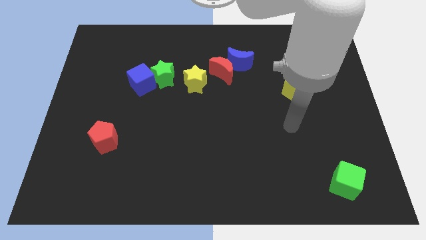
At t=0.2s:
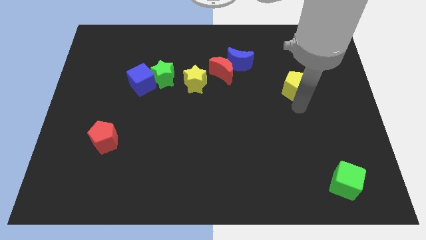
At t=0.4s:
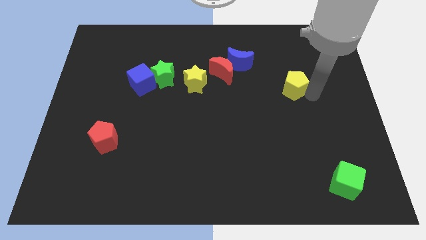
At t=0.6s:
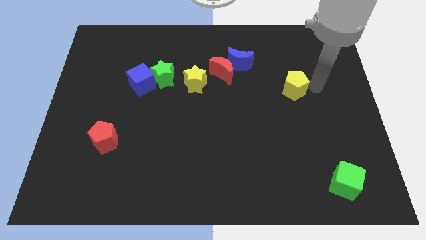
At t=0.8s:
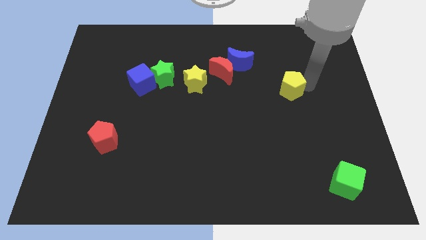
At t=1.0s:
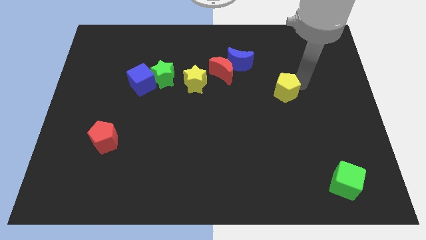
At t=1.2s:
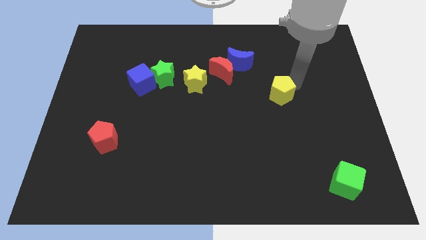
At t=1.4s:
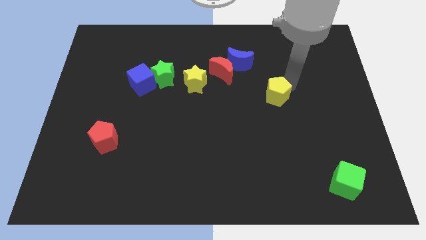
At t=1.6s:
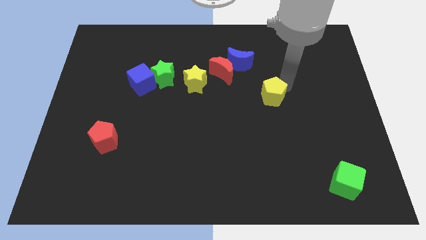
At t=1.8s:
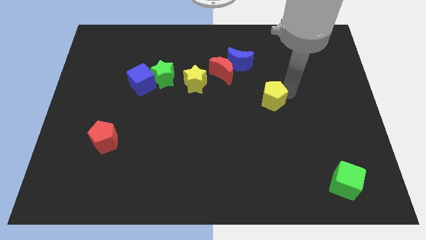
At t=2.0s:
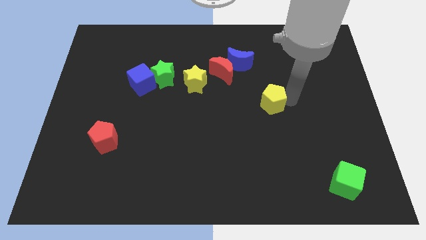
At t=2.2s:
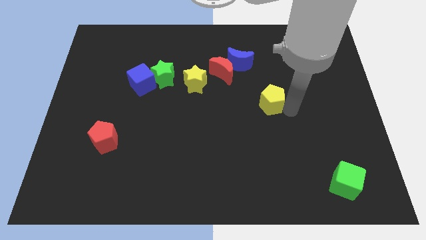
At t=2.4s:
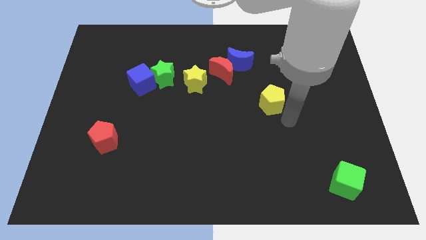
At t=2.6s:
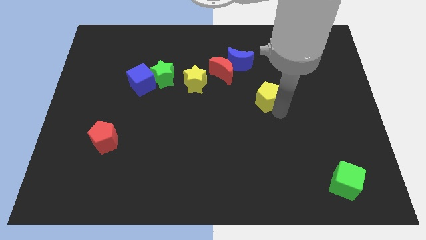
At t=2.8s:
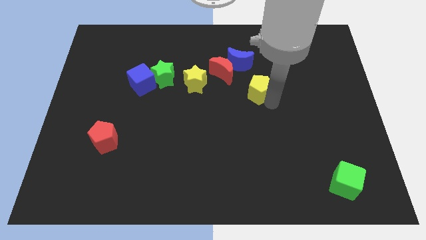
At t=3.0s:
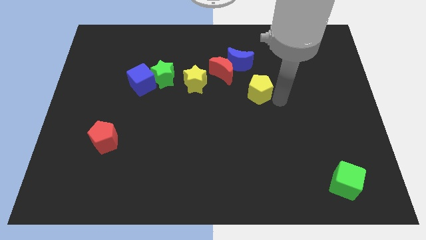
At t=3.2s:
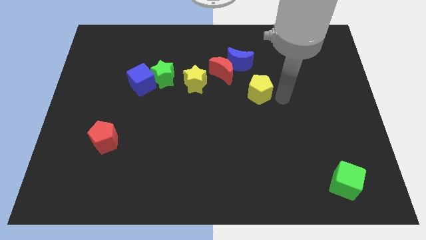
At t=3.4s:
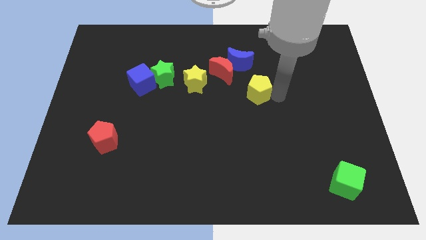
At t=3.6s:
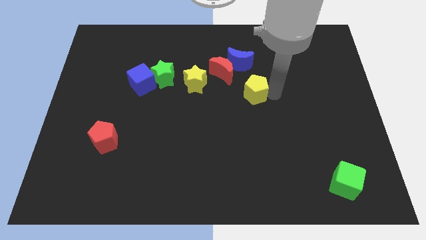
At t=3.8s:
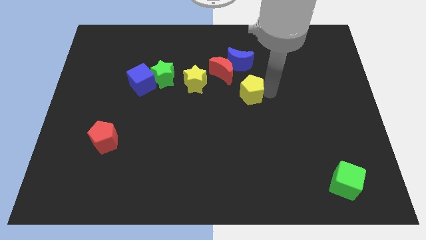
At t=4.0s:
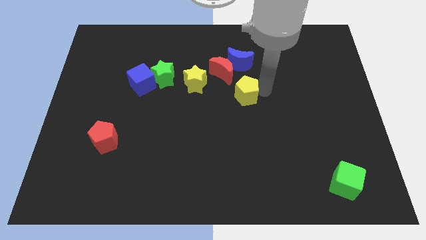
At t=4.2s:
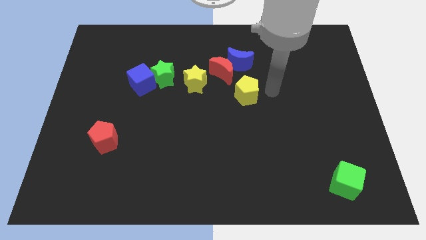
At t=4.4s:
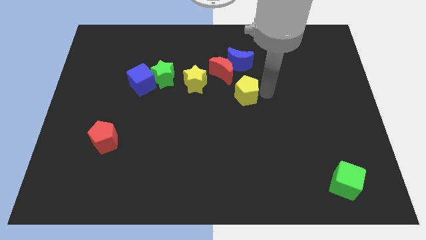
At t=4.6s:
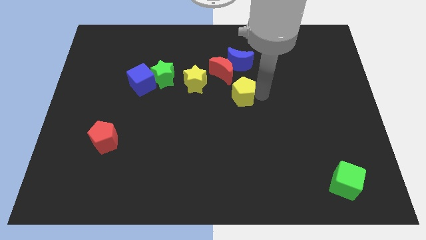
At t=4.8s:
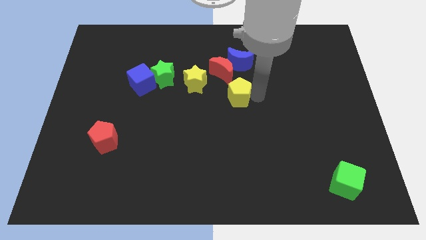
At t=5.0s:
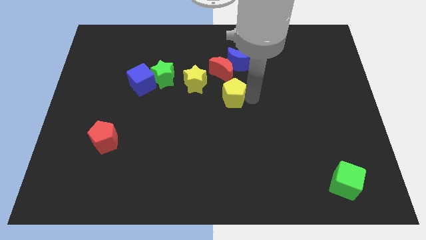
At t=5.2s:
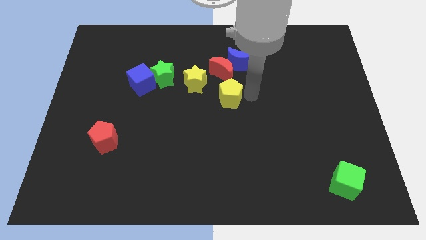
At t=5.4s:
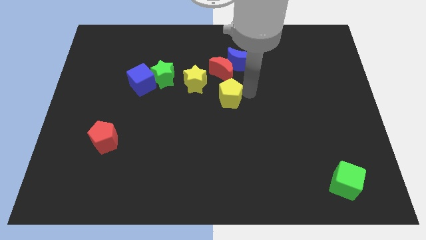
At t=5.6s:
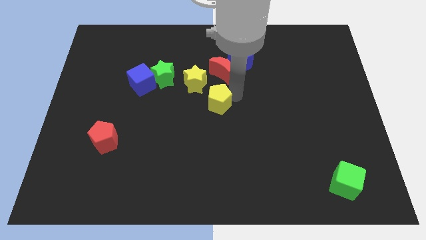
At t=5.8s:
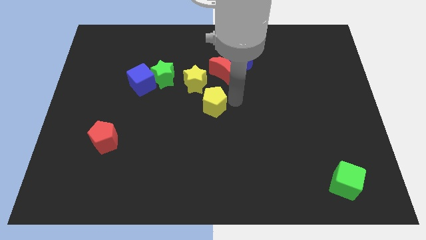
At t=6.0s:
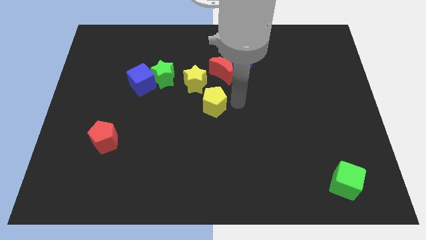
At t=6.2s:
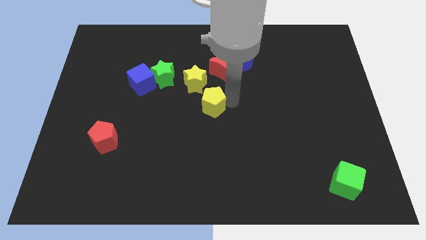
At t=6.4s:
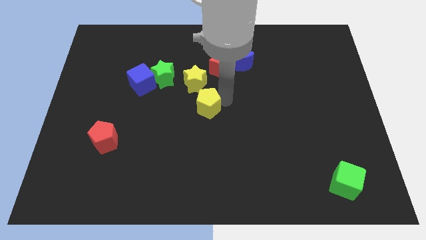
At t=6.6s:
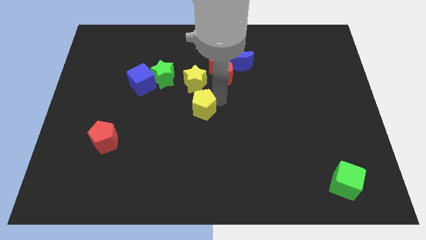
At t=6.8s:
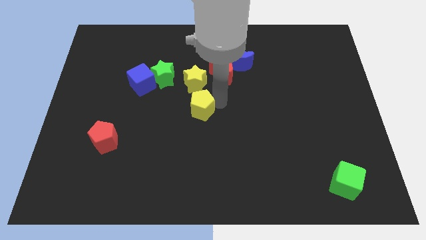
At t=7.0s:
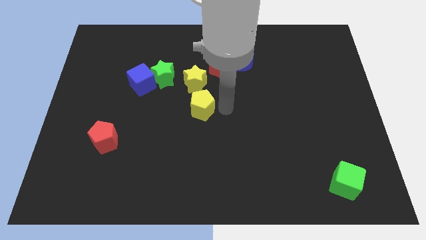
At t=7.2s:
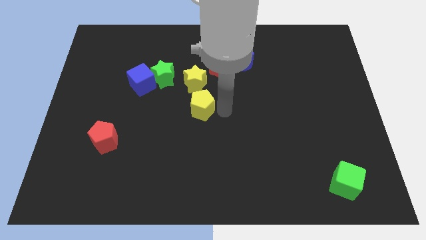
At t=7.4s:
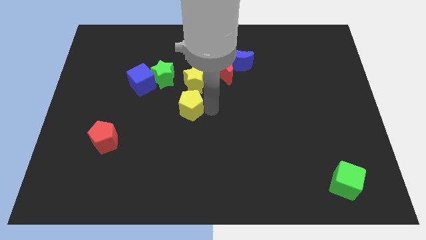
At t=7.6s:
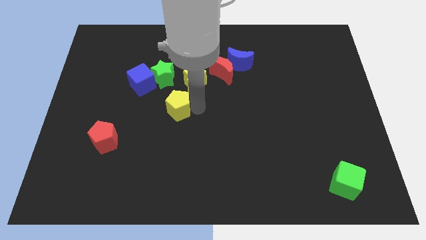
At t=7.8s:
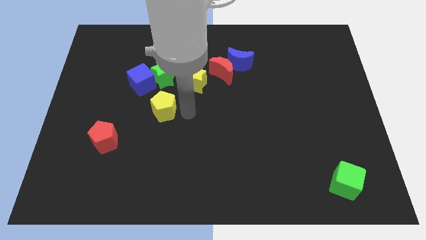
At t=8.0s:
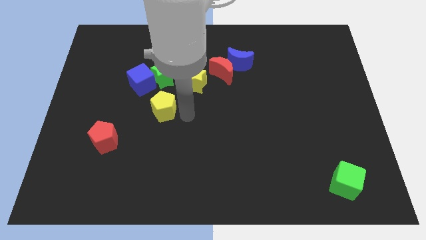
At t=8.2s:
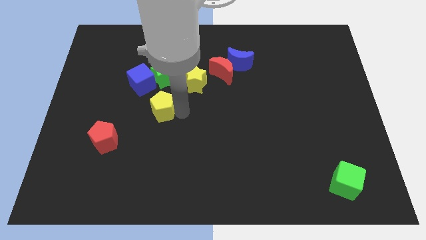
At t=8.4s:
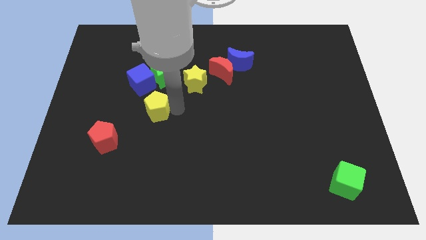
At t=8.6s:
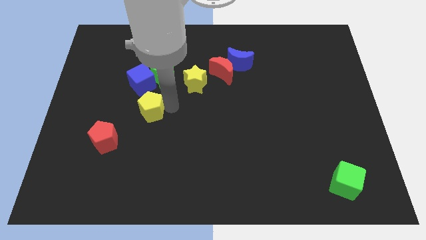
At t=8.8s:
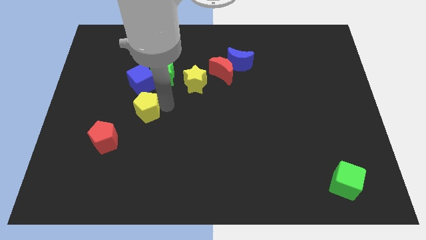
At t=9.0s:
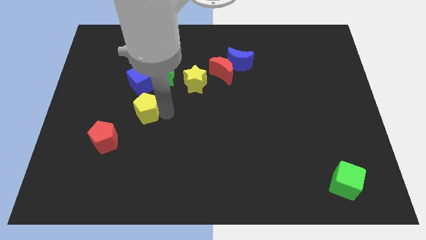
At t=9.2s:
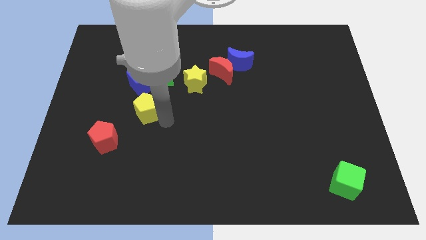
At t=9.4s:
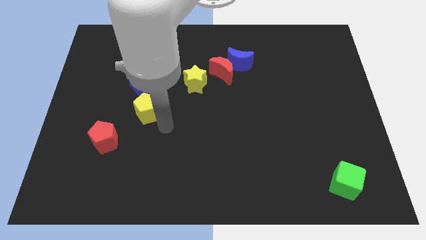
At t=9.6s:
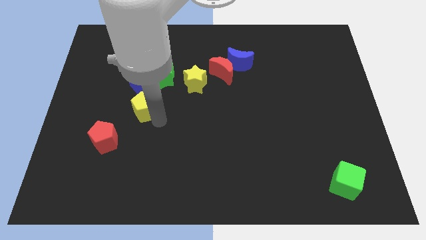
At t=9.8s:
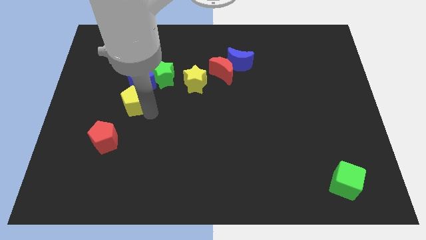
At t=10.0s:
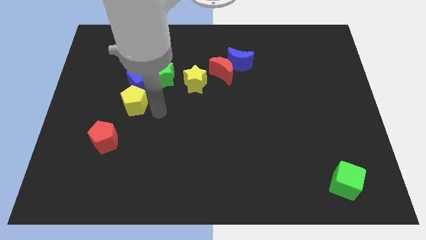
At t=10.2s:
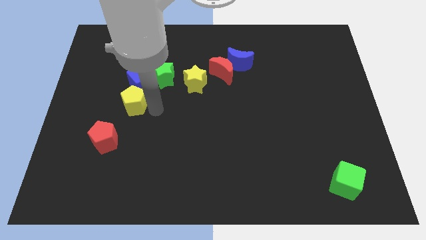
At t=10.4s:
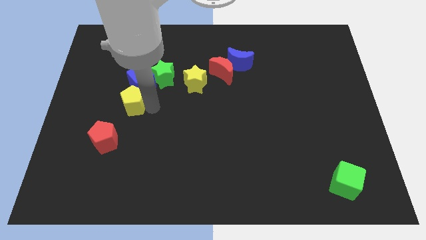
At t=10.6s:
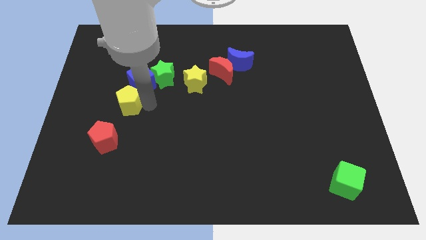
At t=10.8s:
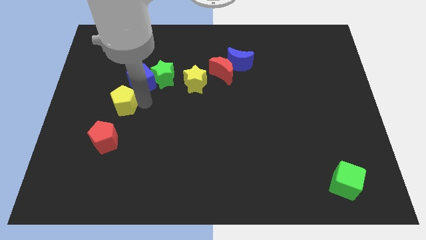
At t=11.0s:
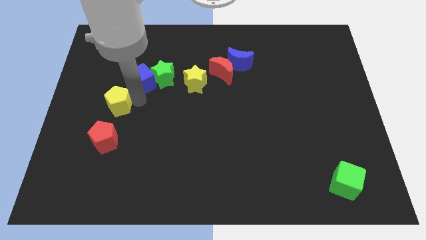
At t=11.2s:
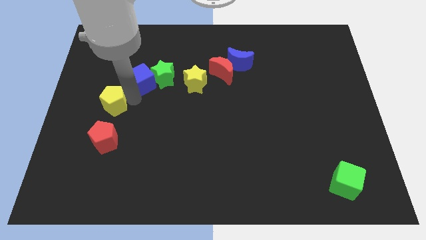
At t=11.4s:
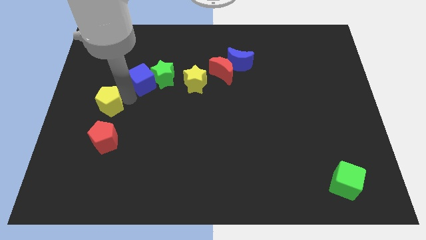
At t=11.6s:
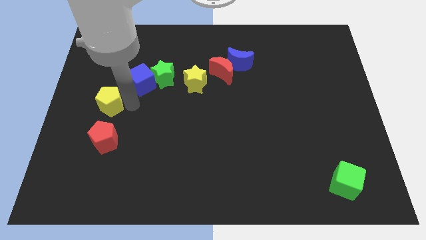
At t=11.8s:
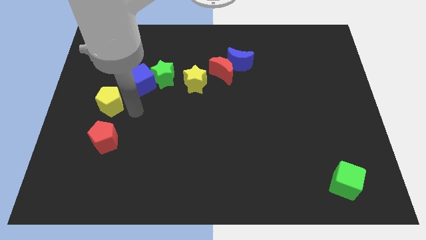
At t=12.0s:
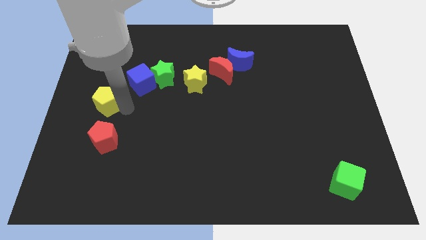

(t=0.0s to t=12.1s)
put the yellow pentagon to the left side

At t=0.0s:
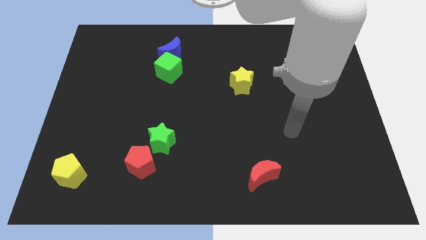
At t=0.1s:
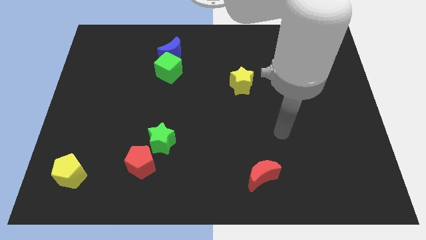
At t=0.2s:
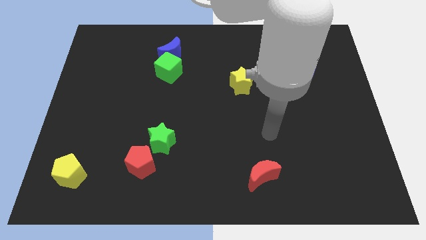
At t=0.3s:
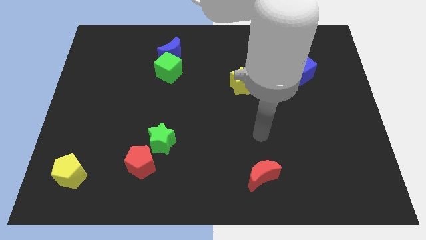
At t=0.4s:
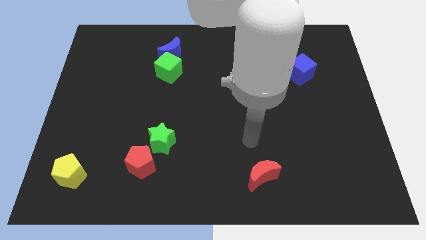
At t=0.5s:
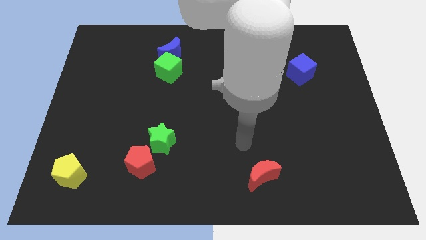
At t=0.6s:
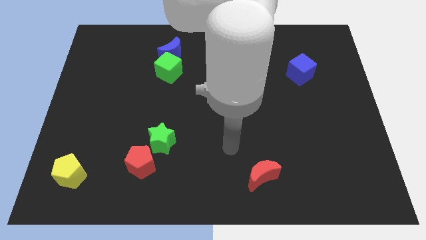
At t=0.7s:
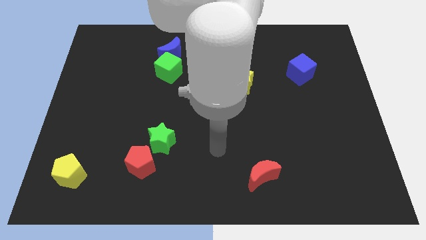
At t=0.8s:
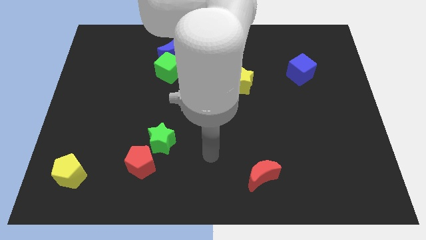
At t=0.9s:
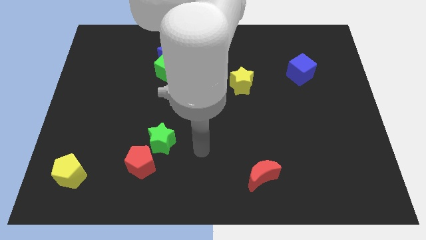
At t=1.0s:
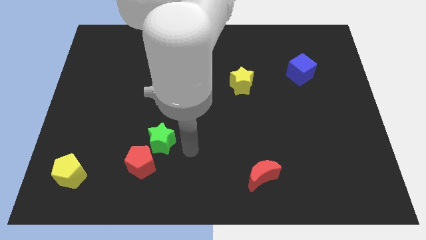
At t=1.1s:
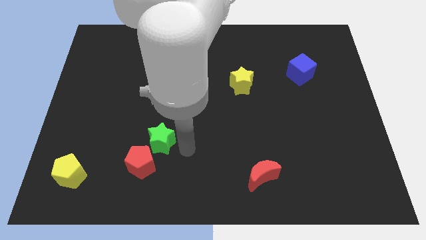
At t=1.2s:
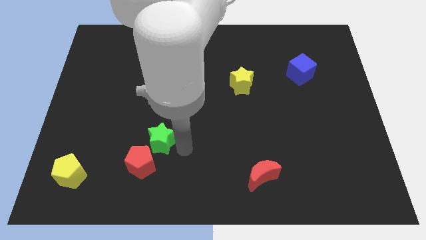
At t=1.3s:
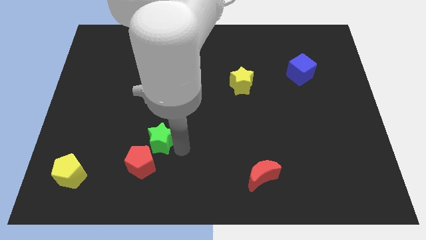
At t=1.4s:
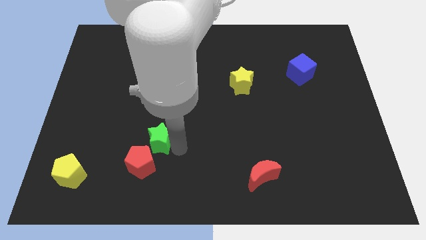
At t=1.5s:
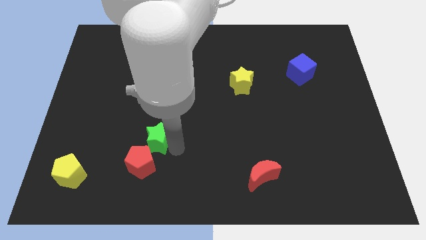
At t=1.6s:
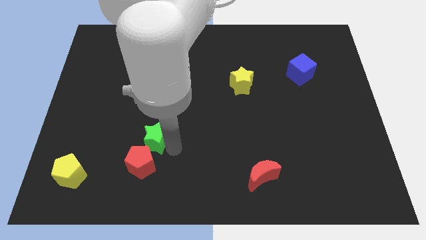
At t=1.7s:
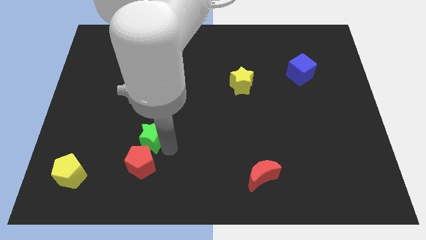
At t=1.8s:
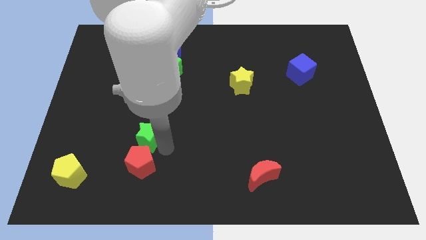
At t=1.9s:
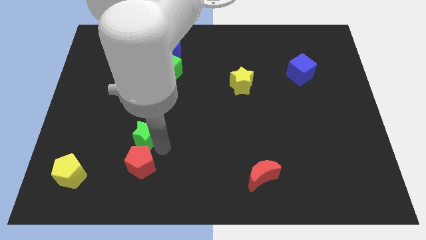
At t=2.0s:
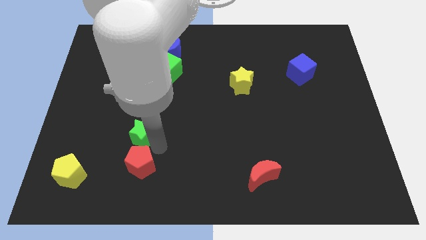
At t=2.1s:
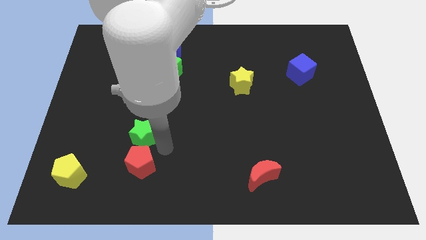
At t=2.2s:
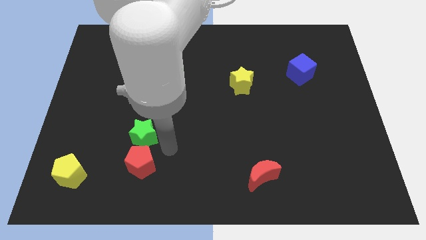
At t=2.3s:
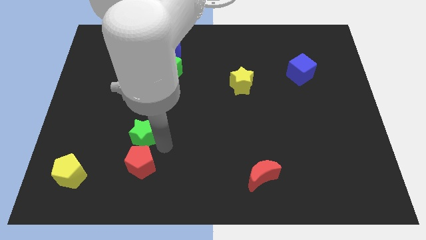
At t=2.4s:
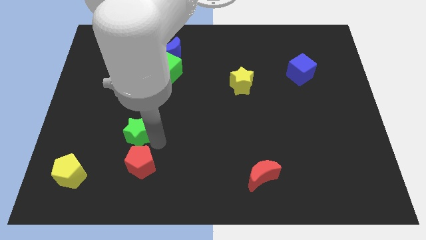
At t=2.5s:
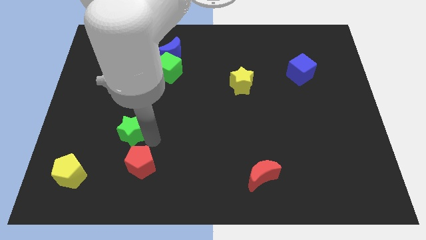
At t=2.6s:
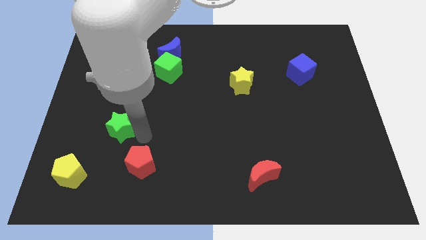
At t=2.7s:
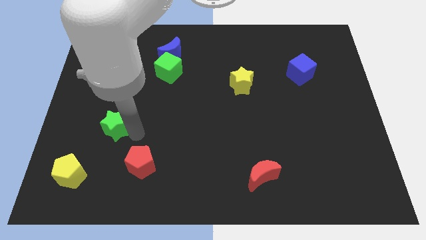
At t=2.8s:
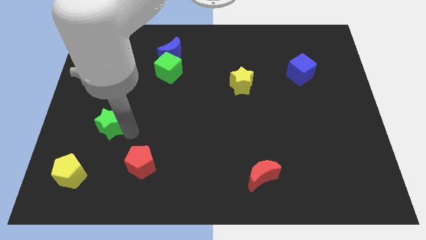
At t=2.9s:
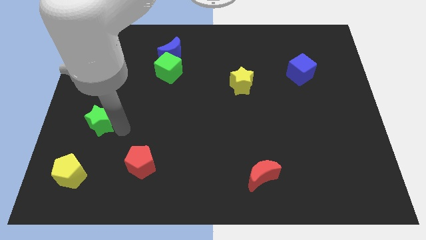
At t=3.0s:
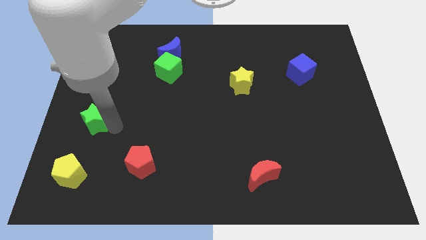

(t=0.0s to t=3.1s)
put the green star to the left side of the board
